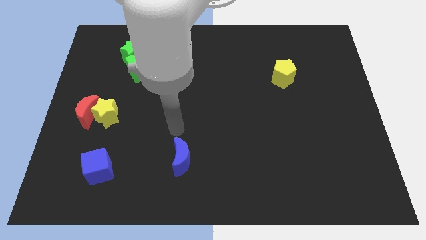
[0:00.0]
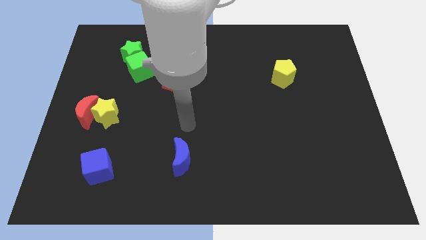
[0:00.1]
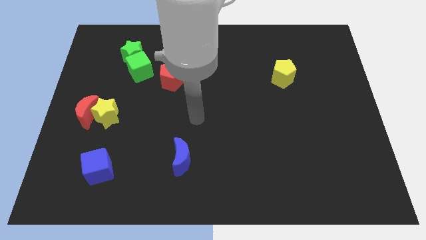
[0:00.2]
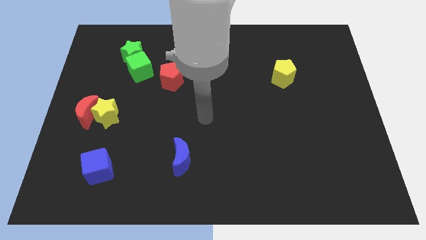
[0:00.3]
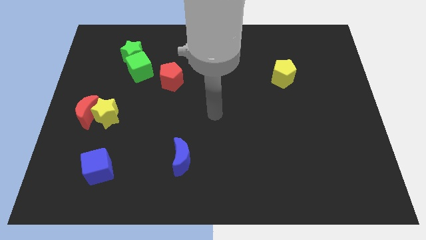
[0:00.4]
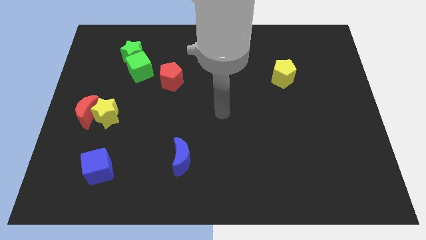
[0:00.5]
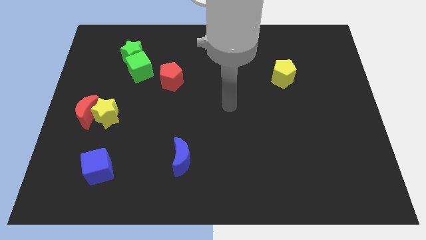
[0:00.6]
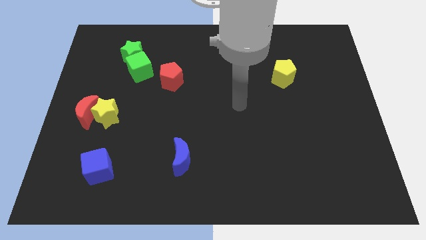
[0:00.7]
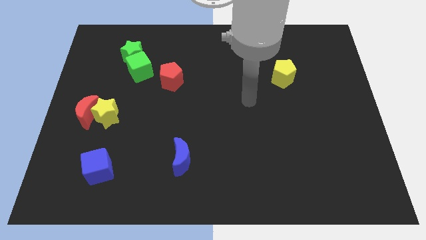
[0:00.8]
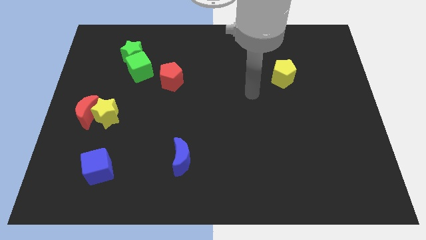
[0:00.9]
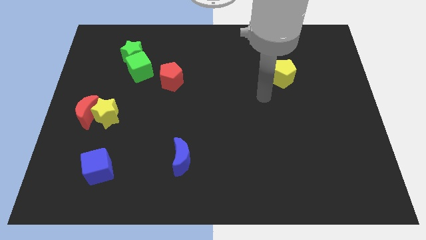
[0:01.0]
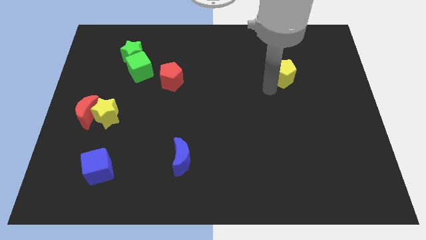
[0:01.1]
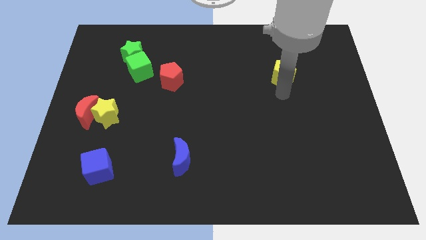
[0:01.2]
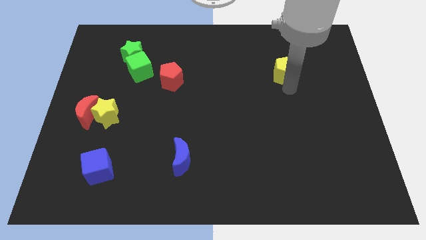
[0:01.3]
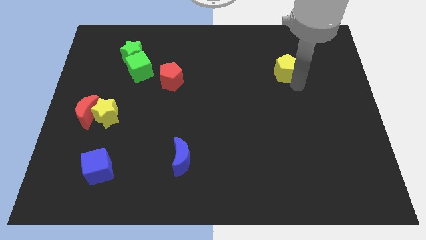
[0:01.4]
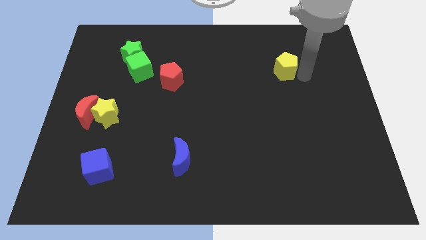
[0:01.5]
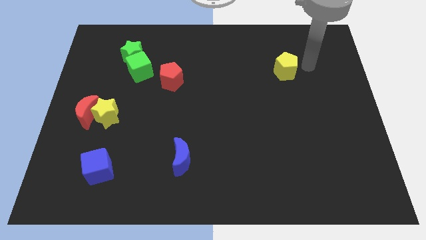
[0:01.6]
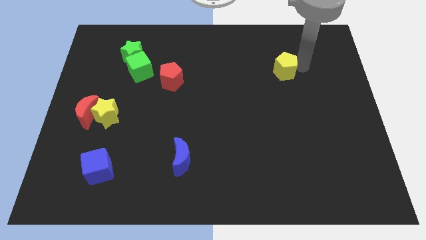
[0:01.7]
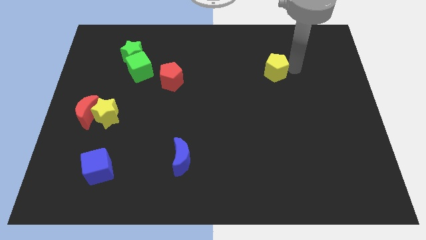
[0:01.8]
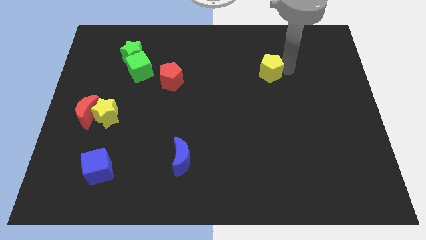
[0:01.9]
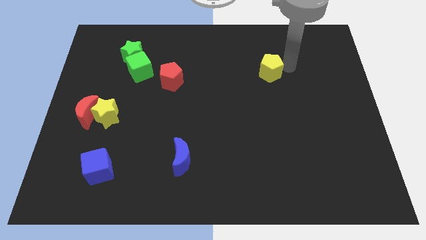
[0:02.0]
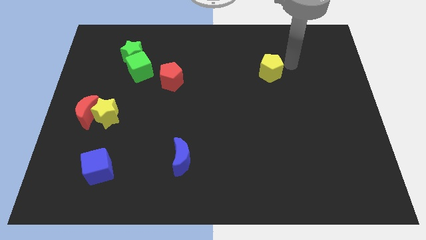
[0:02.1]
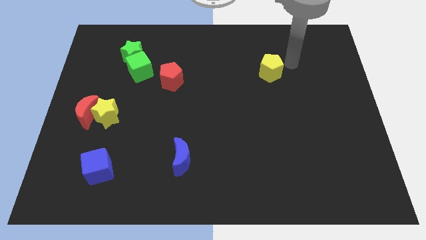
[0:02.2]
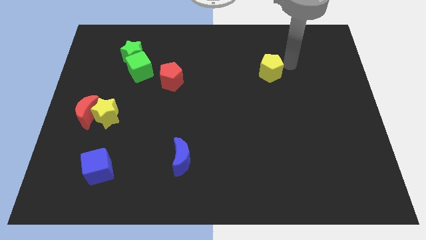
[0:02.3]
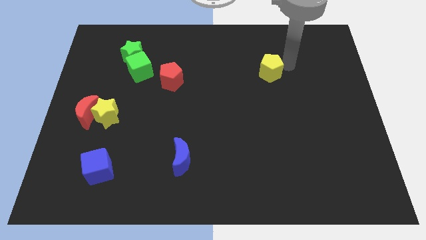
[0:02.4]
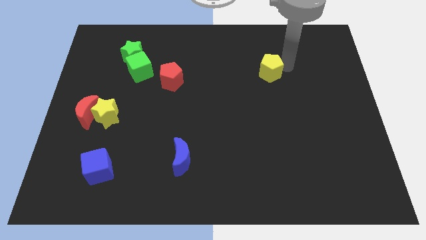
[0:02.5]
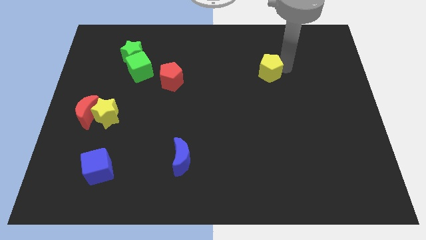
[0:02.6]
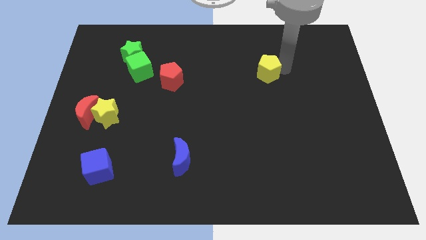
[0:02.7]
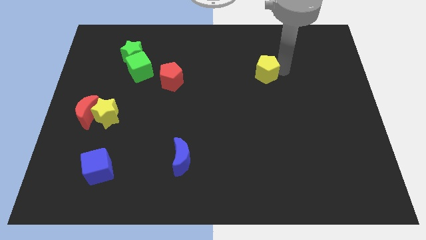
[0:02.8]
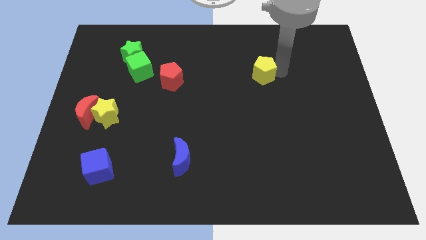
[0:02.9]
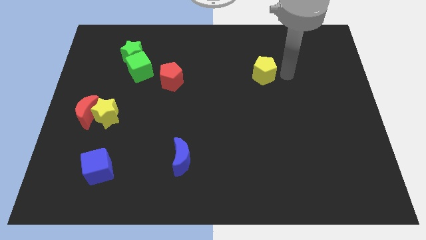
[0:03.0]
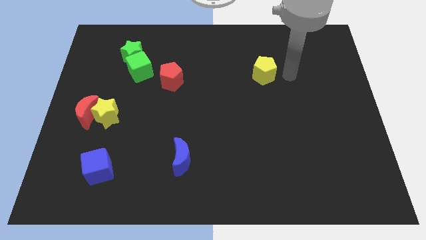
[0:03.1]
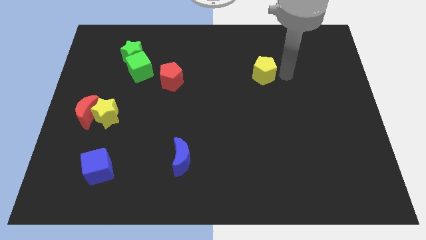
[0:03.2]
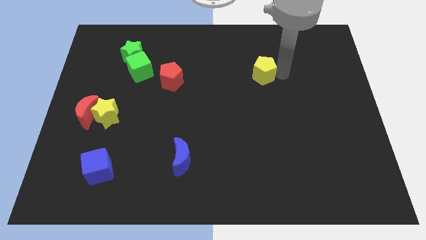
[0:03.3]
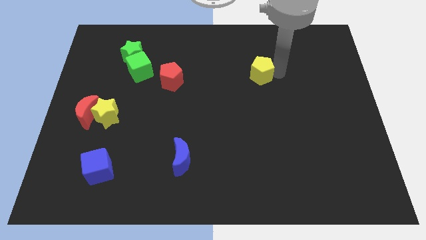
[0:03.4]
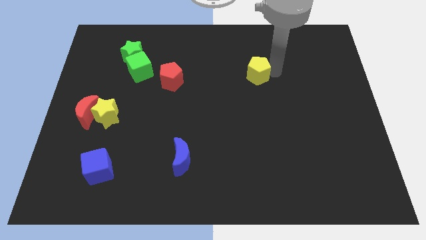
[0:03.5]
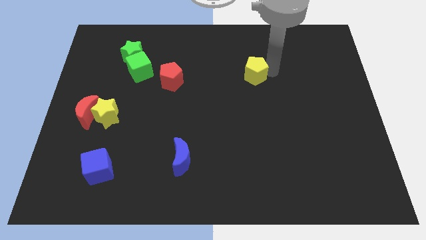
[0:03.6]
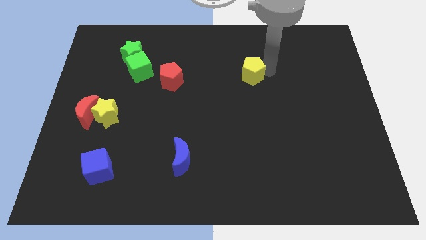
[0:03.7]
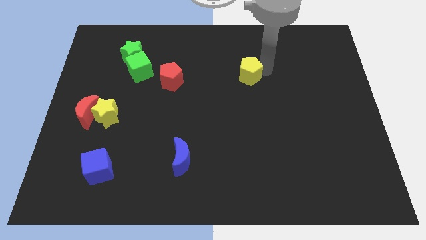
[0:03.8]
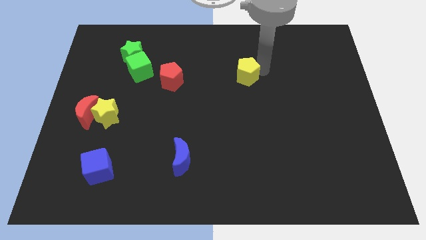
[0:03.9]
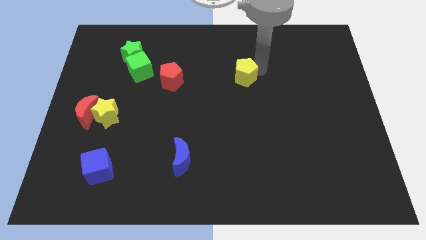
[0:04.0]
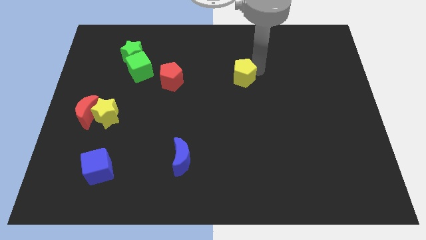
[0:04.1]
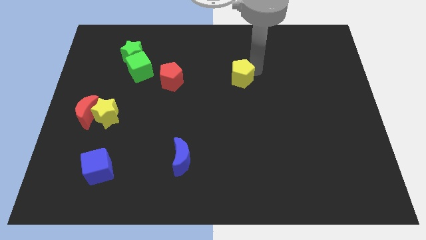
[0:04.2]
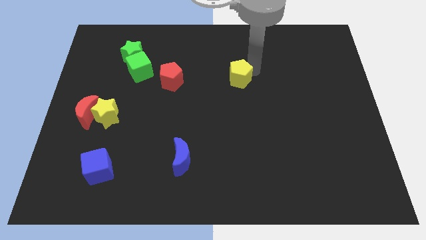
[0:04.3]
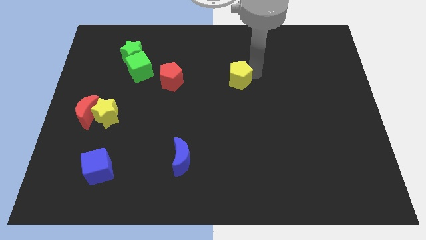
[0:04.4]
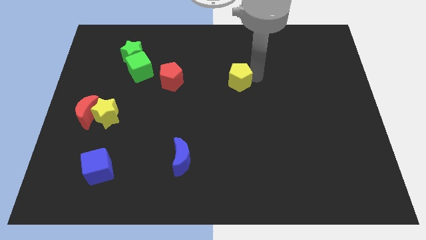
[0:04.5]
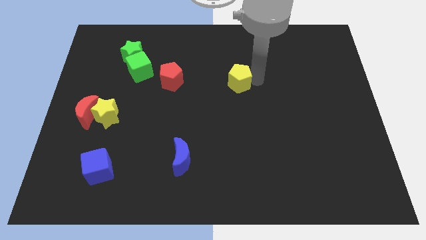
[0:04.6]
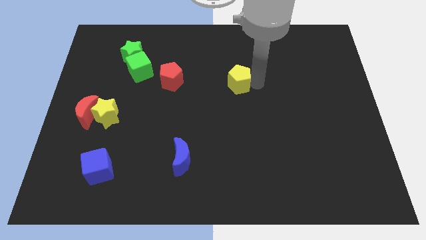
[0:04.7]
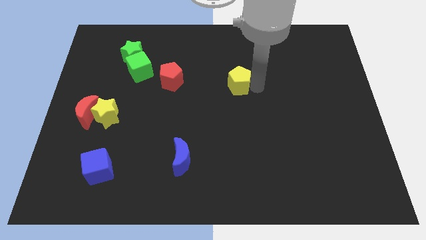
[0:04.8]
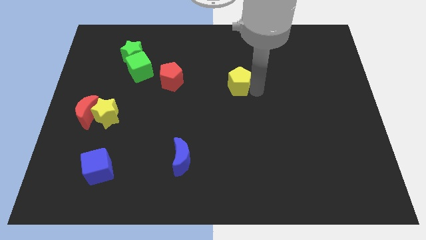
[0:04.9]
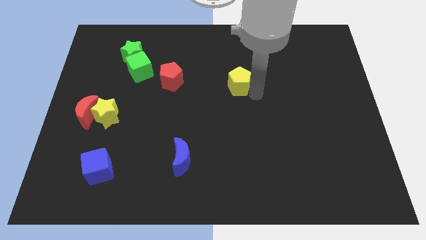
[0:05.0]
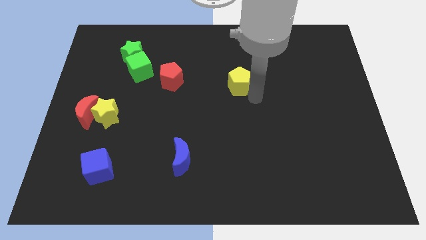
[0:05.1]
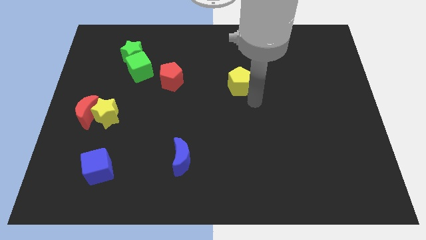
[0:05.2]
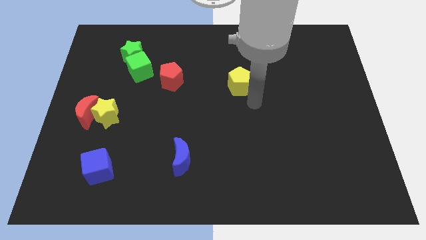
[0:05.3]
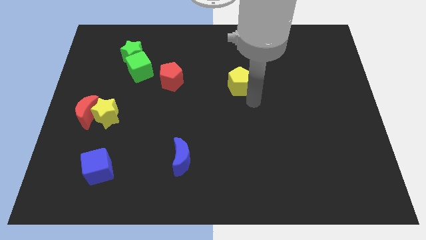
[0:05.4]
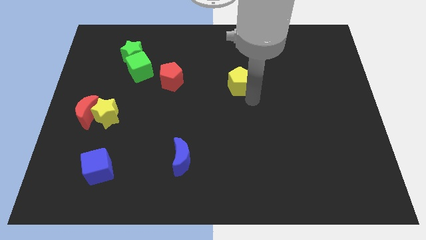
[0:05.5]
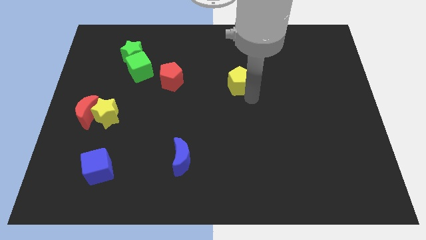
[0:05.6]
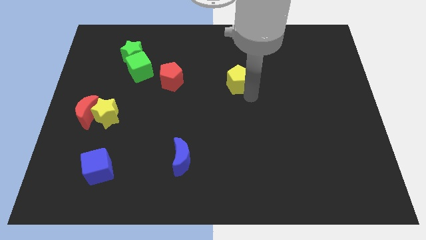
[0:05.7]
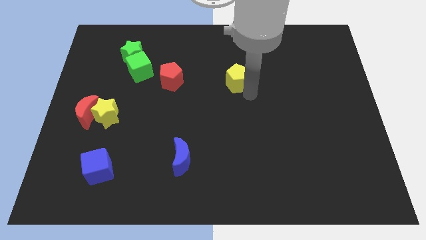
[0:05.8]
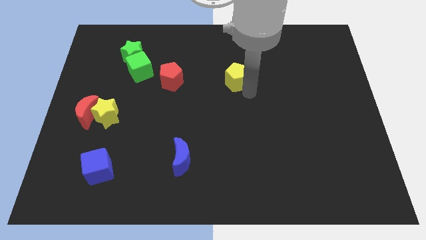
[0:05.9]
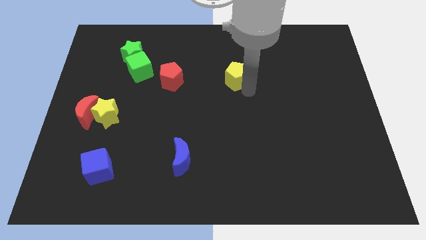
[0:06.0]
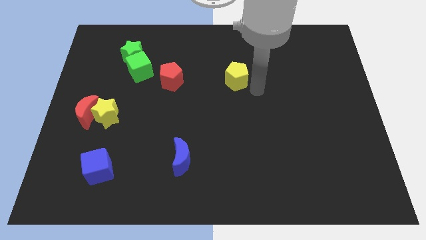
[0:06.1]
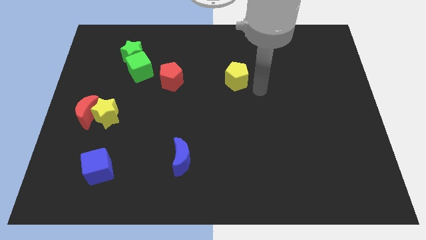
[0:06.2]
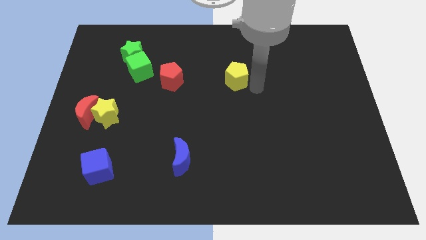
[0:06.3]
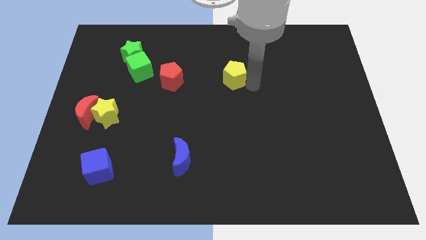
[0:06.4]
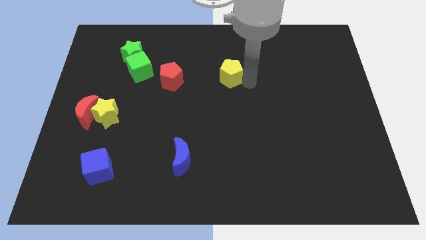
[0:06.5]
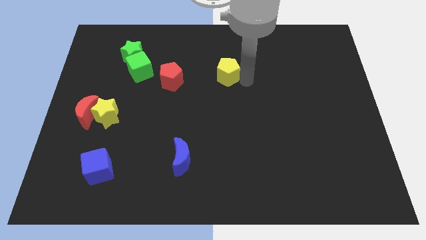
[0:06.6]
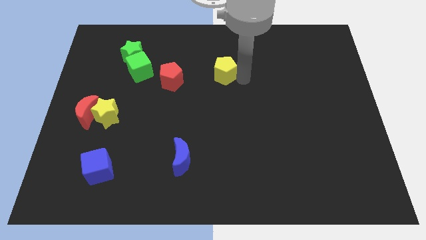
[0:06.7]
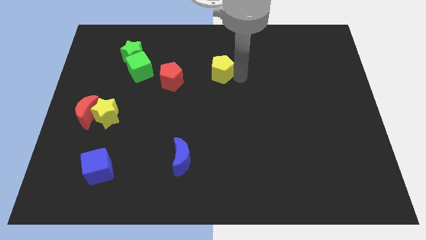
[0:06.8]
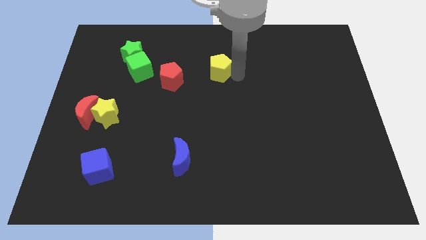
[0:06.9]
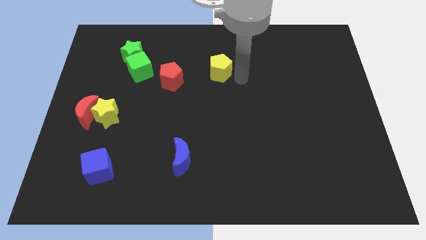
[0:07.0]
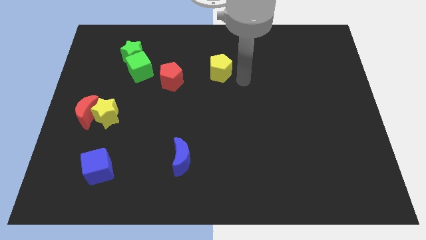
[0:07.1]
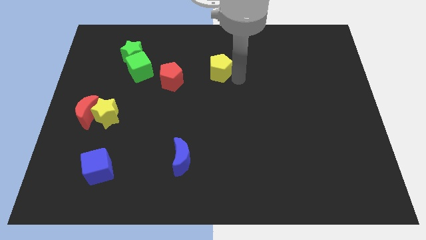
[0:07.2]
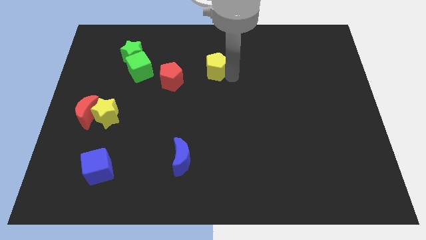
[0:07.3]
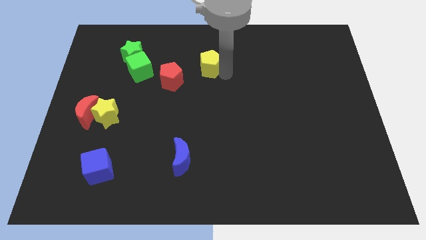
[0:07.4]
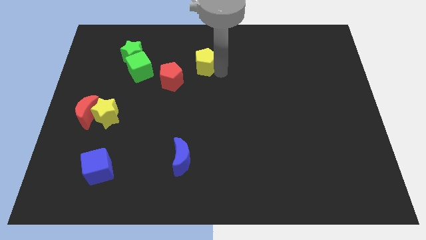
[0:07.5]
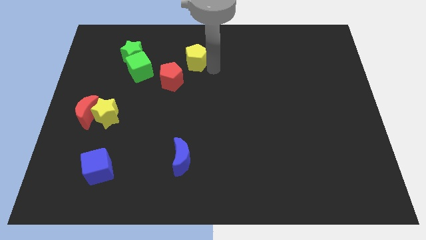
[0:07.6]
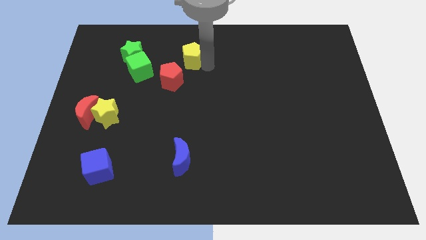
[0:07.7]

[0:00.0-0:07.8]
move the yellow pentagon to the right of the green star
